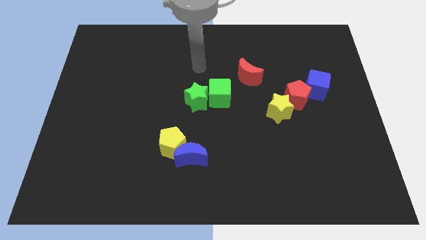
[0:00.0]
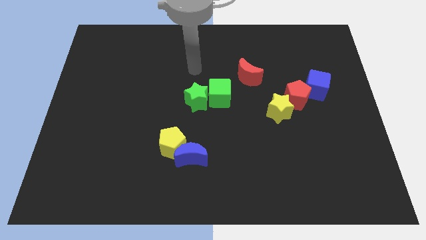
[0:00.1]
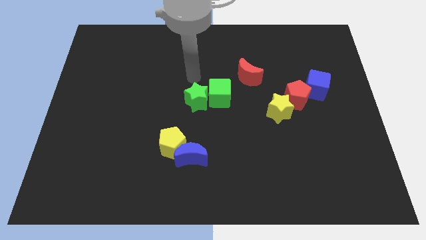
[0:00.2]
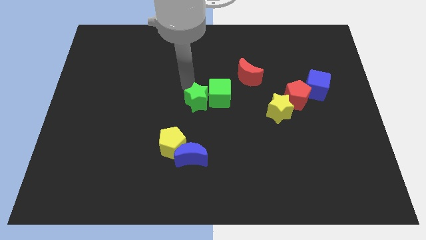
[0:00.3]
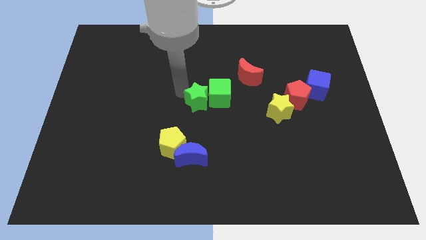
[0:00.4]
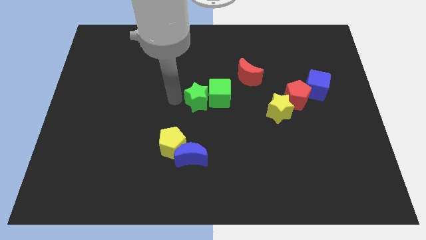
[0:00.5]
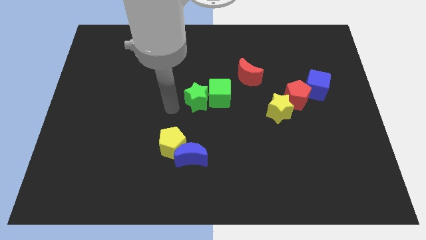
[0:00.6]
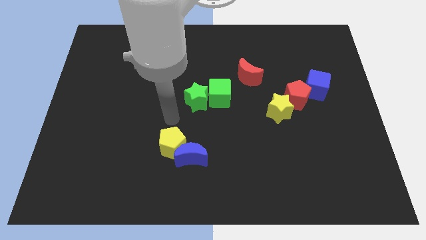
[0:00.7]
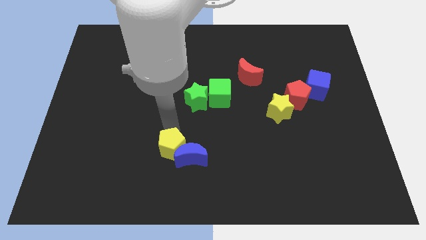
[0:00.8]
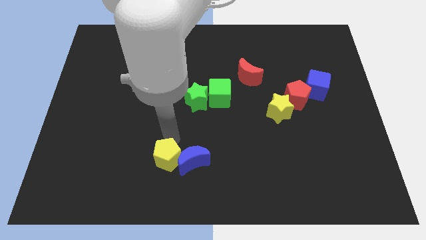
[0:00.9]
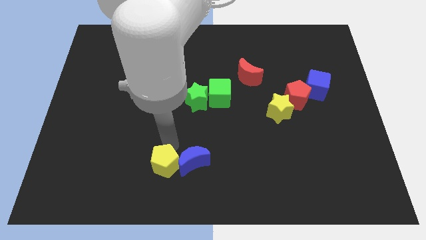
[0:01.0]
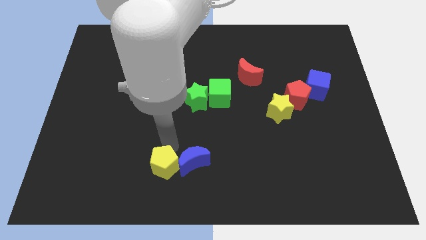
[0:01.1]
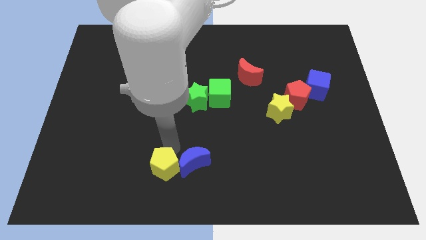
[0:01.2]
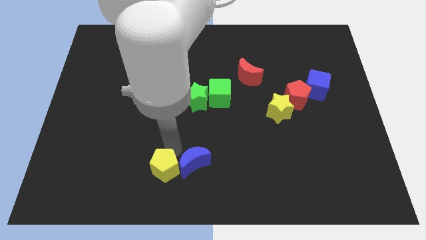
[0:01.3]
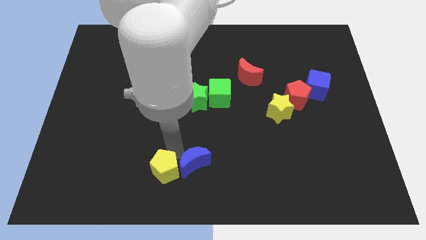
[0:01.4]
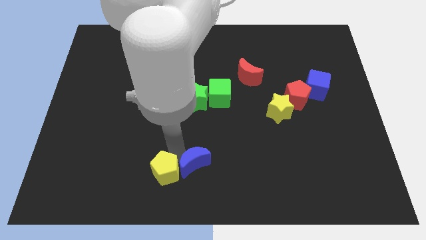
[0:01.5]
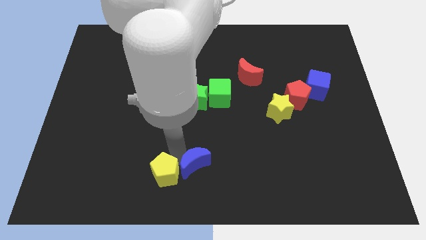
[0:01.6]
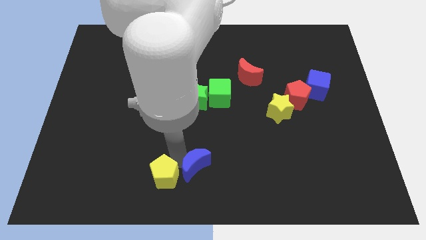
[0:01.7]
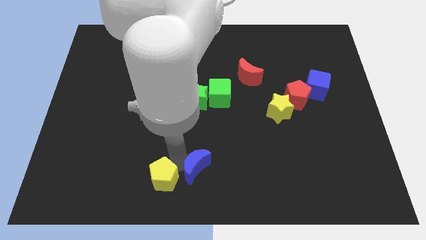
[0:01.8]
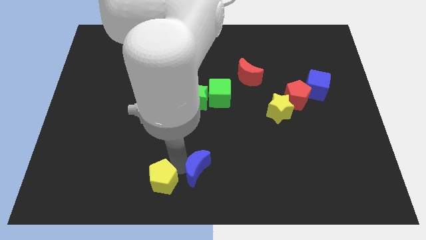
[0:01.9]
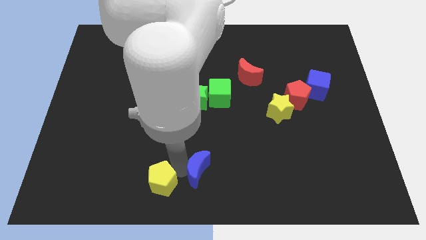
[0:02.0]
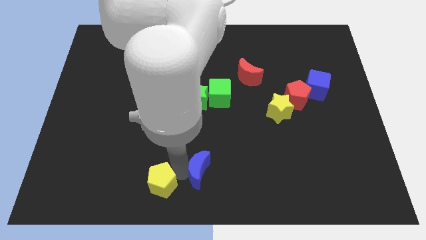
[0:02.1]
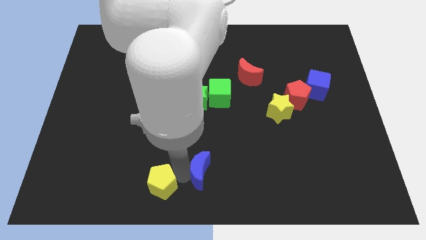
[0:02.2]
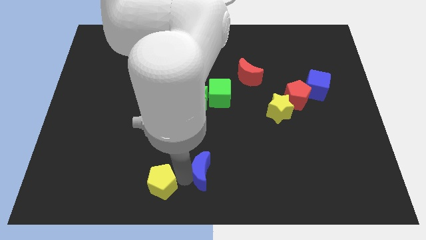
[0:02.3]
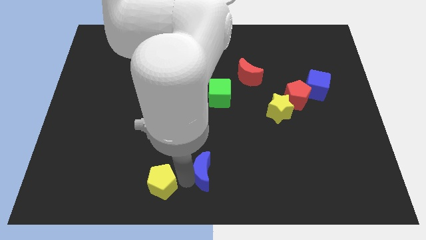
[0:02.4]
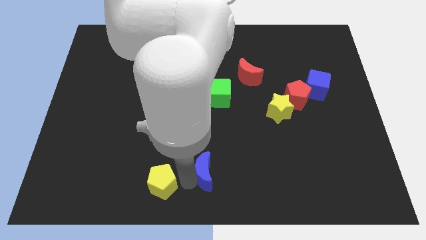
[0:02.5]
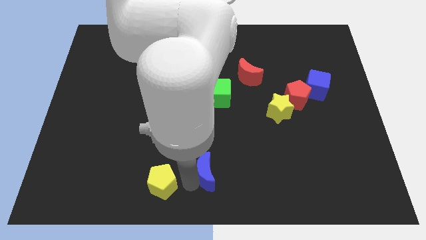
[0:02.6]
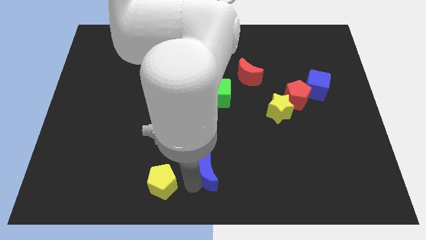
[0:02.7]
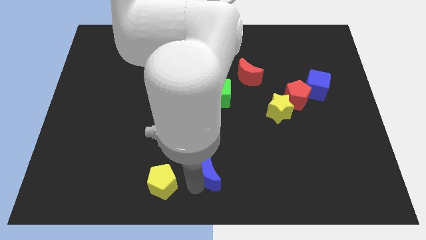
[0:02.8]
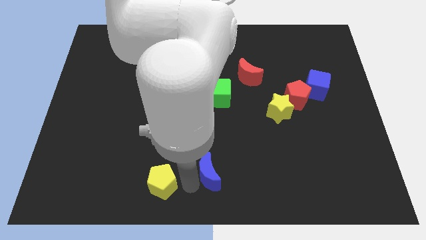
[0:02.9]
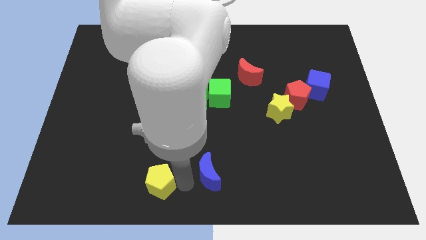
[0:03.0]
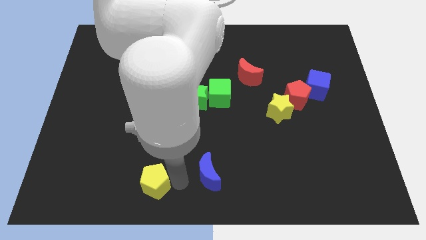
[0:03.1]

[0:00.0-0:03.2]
move the blue moon away from the yellow pentagon

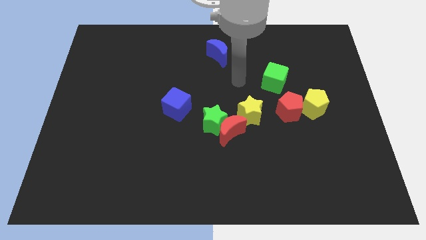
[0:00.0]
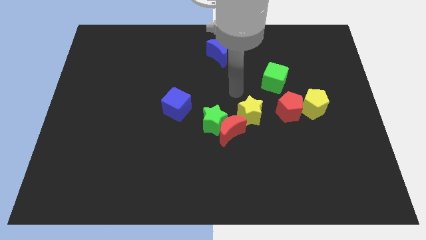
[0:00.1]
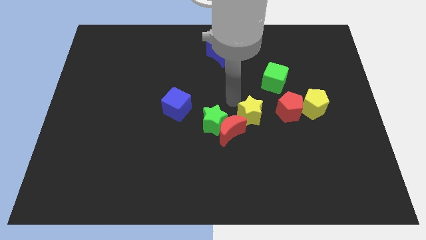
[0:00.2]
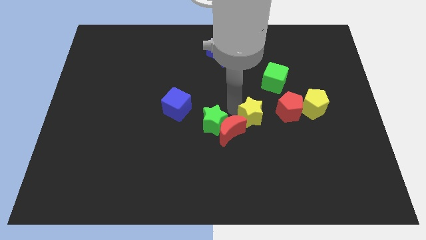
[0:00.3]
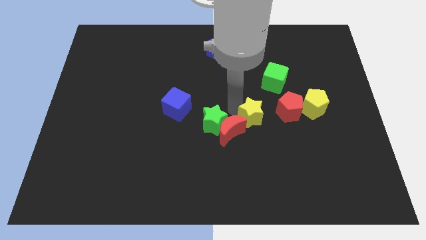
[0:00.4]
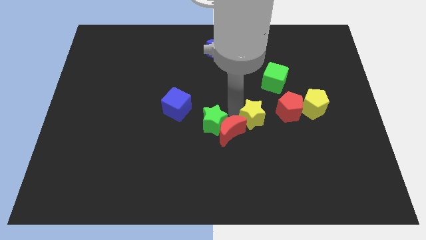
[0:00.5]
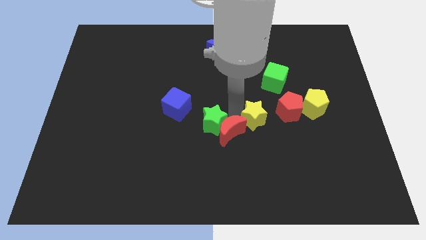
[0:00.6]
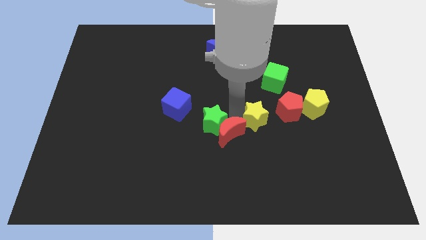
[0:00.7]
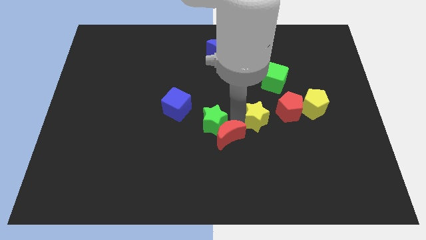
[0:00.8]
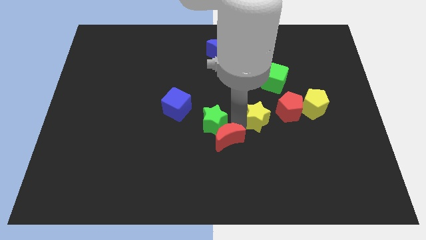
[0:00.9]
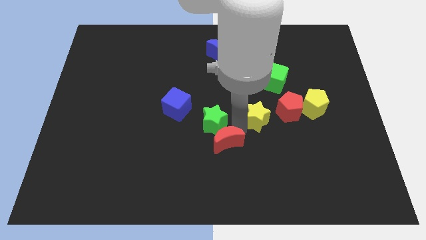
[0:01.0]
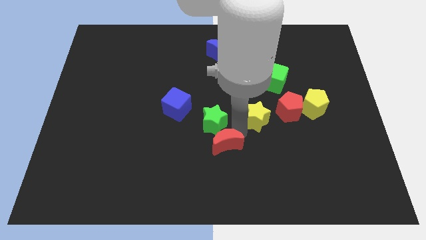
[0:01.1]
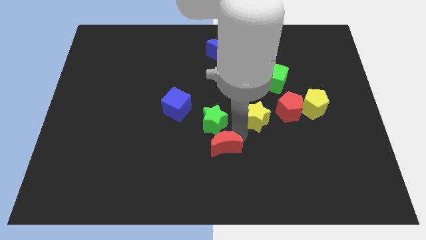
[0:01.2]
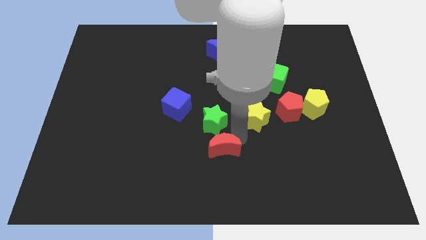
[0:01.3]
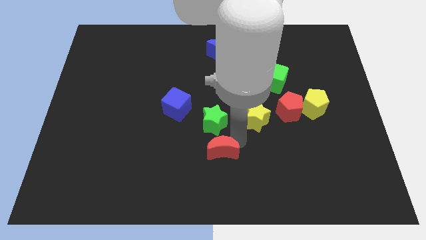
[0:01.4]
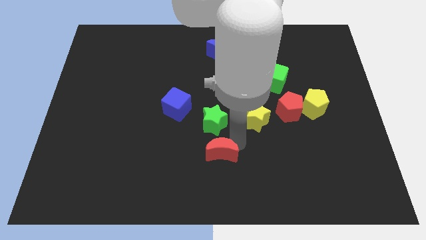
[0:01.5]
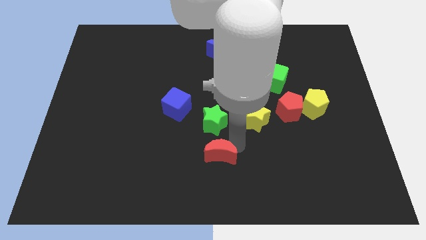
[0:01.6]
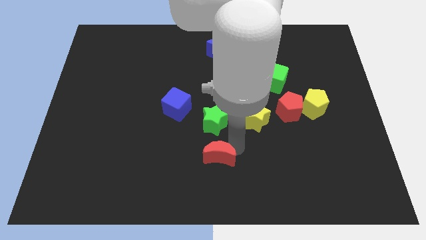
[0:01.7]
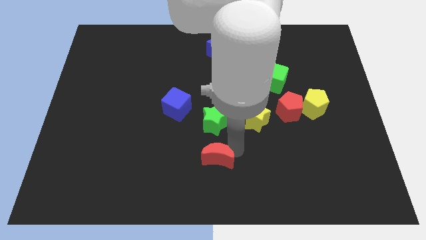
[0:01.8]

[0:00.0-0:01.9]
pull the red moon apart from the green star and yellow star

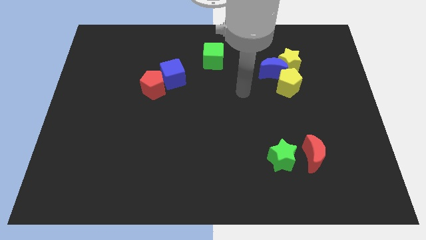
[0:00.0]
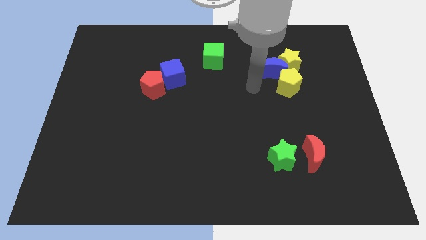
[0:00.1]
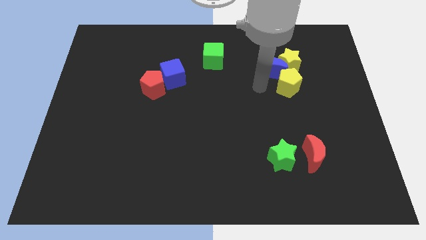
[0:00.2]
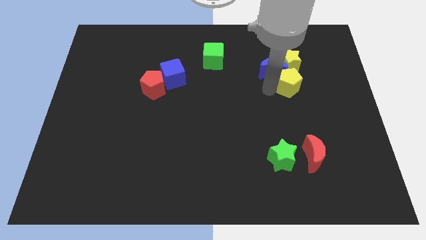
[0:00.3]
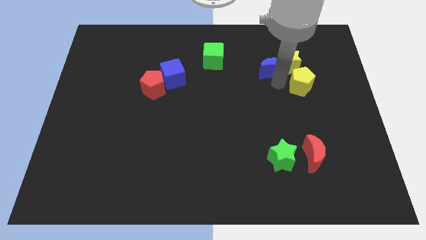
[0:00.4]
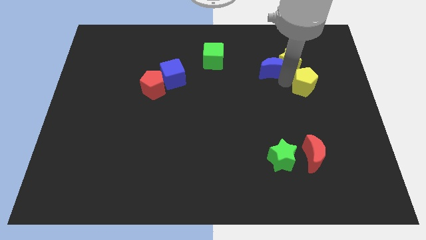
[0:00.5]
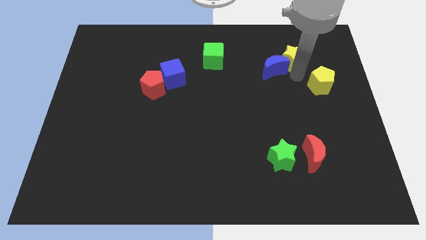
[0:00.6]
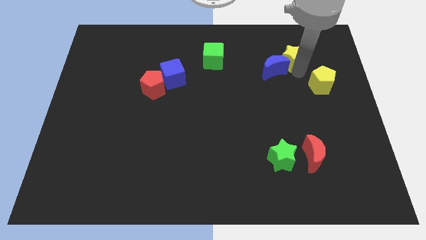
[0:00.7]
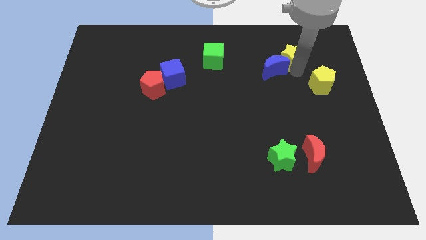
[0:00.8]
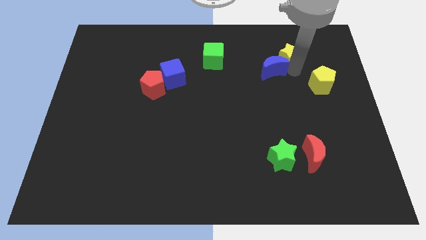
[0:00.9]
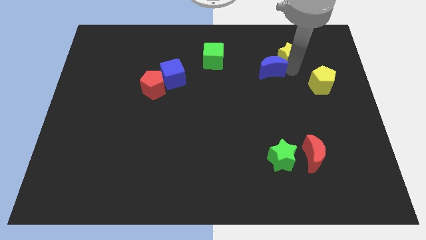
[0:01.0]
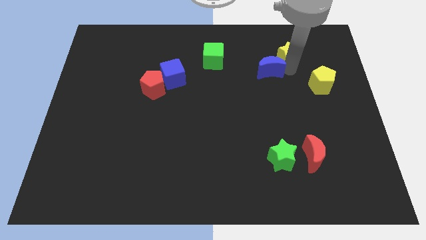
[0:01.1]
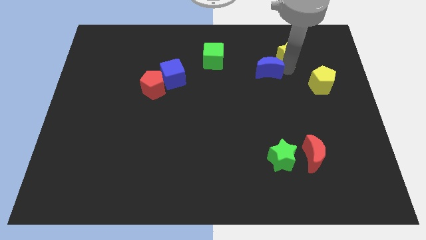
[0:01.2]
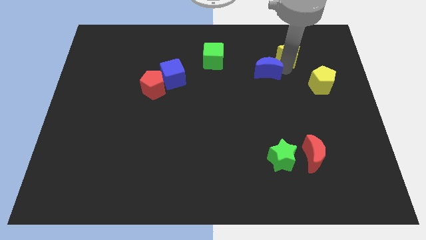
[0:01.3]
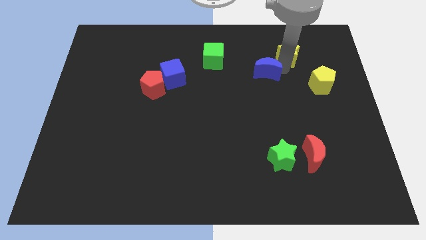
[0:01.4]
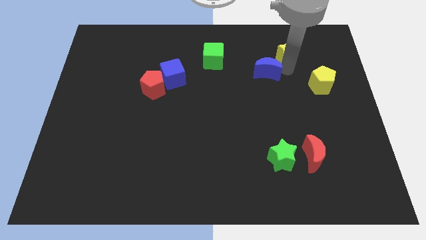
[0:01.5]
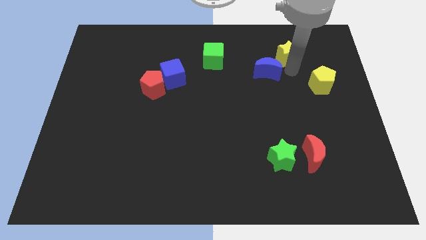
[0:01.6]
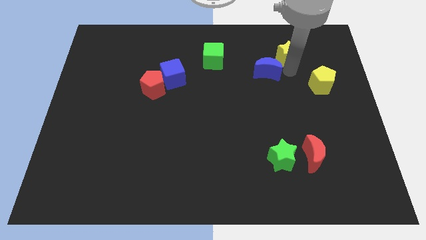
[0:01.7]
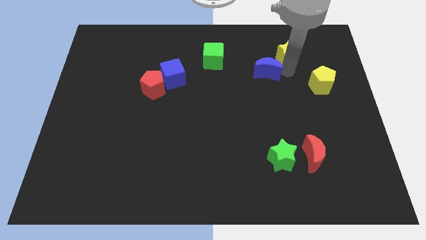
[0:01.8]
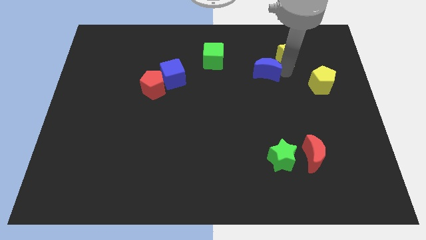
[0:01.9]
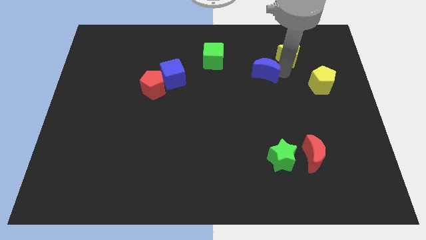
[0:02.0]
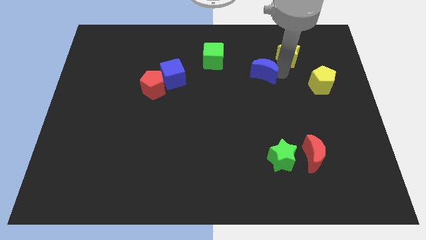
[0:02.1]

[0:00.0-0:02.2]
move the blue moon away from the yellow star and yellow pentagon

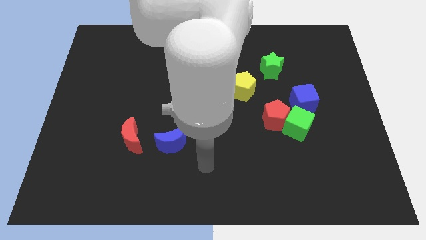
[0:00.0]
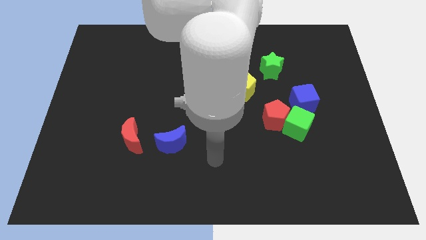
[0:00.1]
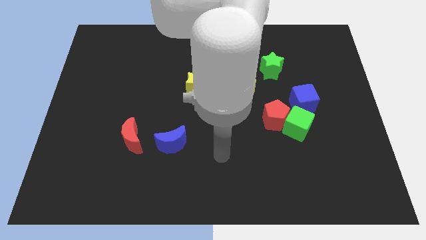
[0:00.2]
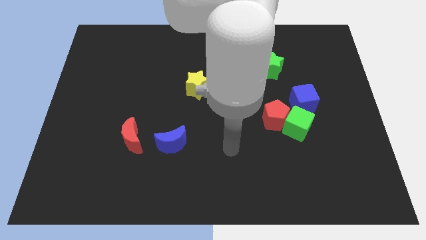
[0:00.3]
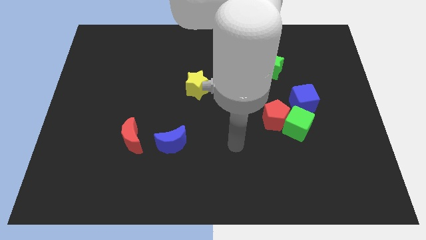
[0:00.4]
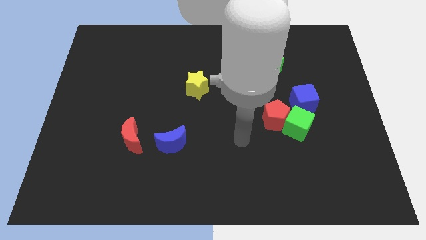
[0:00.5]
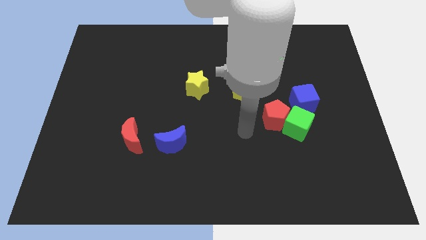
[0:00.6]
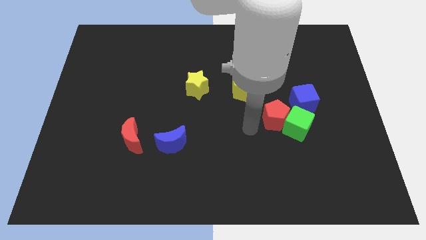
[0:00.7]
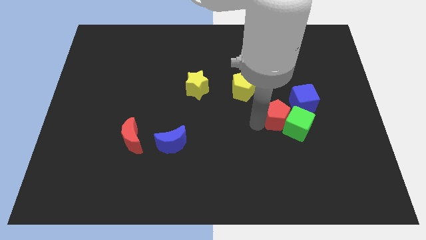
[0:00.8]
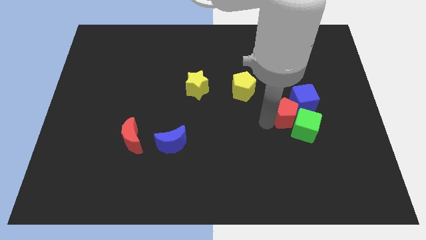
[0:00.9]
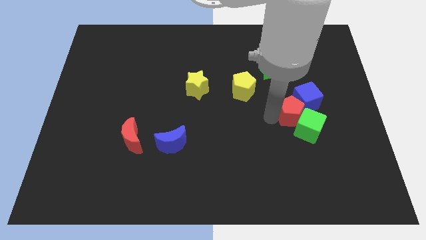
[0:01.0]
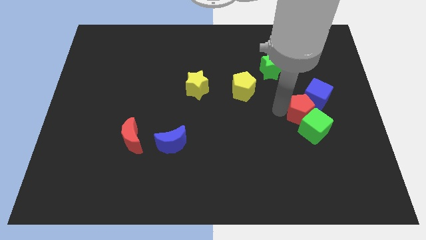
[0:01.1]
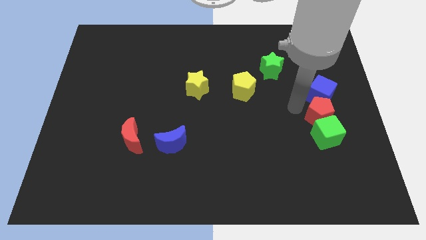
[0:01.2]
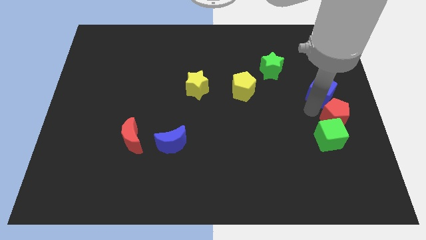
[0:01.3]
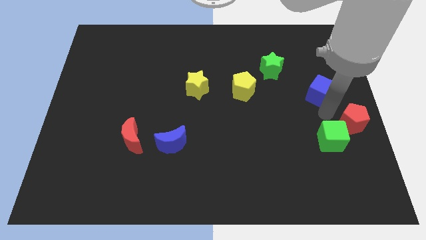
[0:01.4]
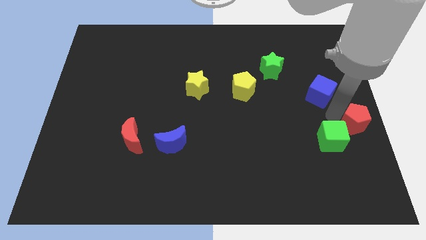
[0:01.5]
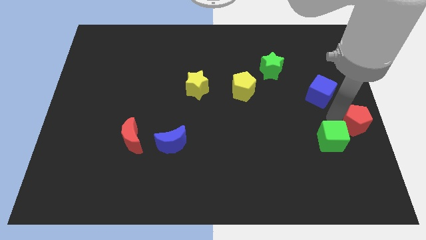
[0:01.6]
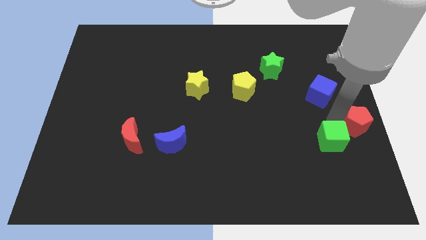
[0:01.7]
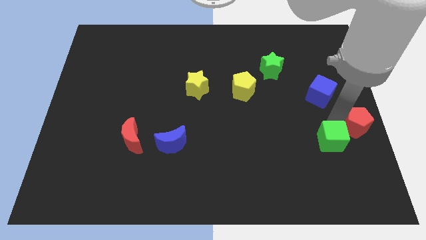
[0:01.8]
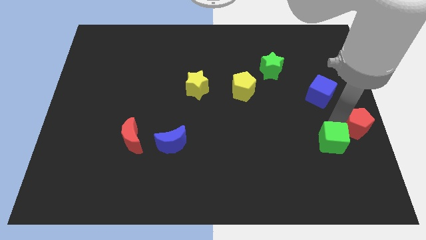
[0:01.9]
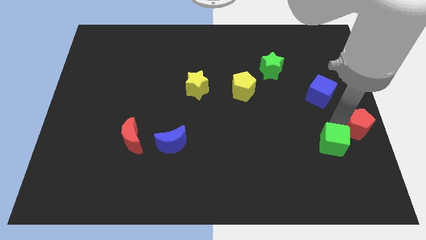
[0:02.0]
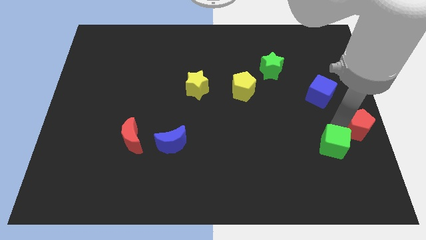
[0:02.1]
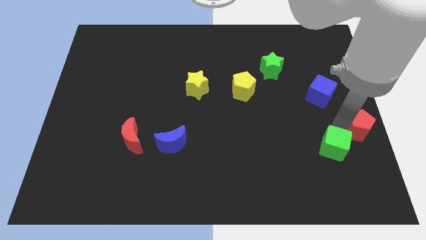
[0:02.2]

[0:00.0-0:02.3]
pull the green cube apart from the red pentagon and blue cube
